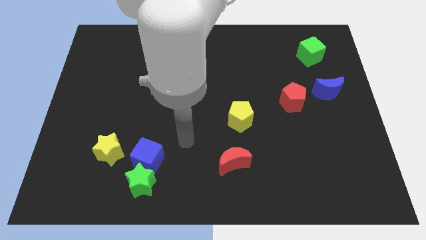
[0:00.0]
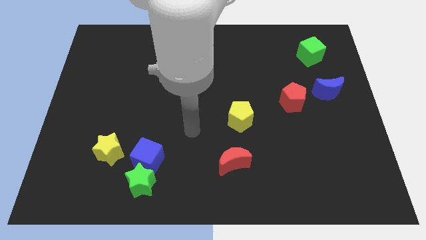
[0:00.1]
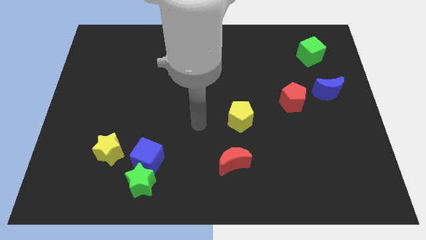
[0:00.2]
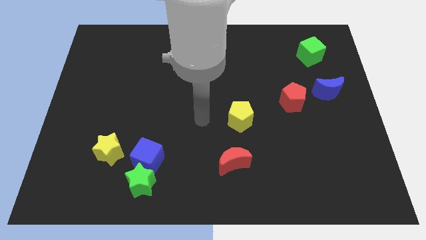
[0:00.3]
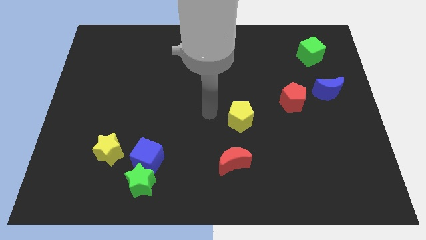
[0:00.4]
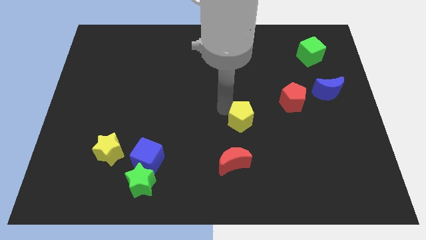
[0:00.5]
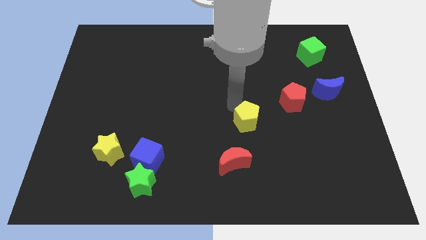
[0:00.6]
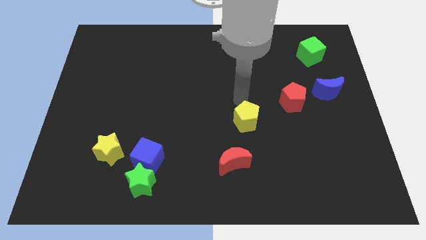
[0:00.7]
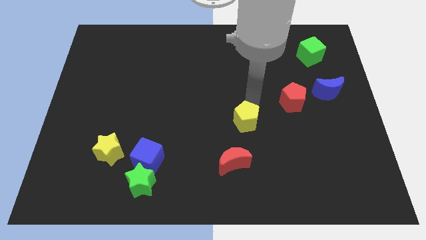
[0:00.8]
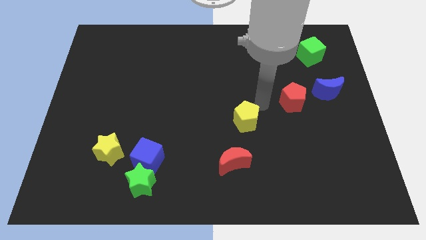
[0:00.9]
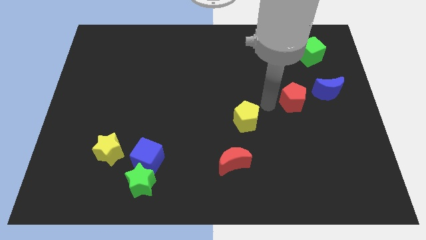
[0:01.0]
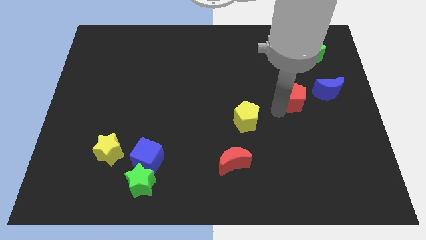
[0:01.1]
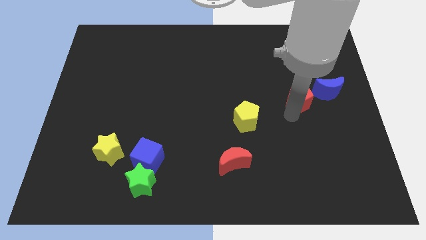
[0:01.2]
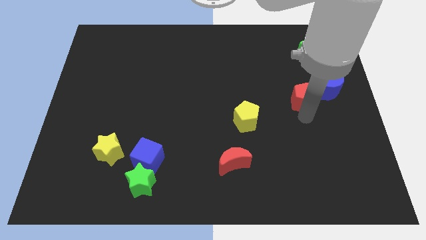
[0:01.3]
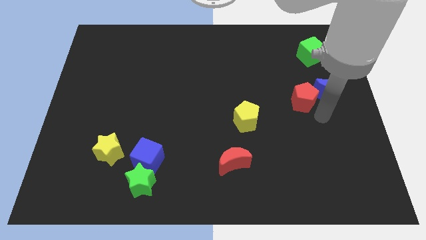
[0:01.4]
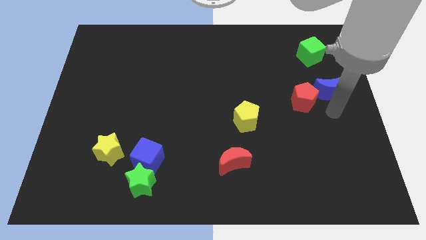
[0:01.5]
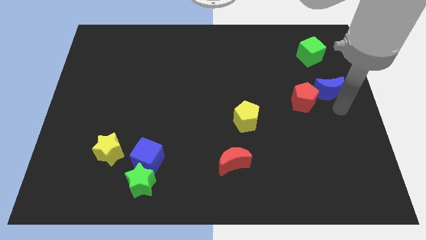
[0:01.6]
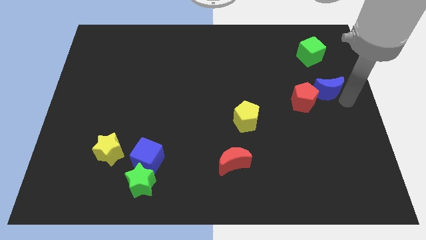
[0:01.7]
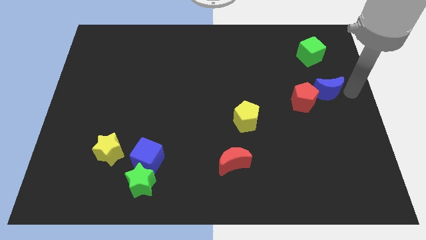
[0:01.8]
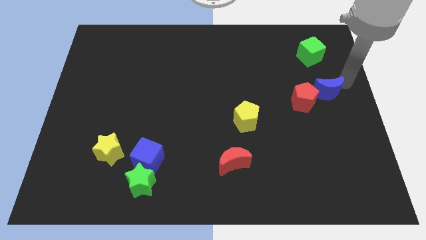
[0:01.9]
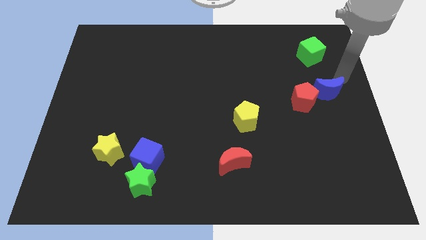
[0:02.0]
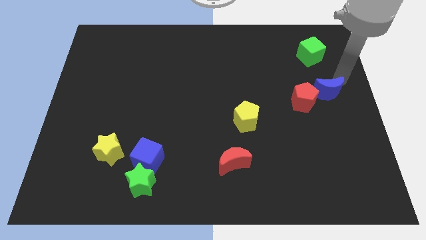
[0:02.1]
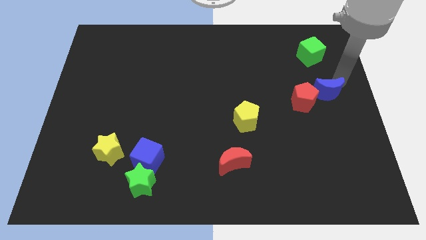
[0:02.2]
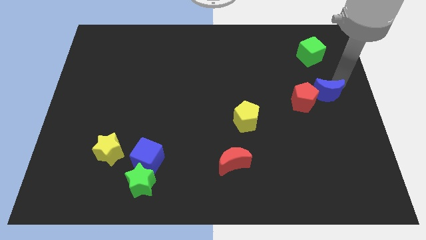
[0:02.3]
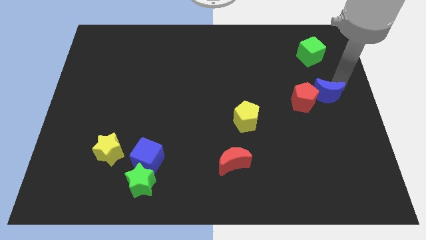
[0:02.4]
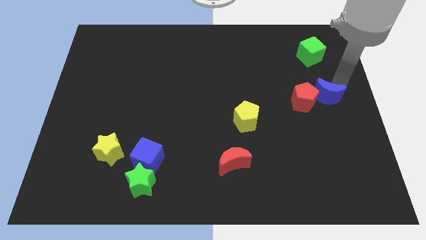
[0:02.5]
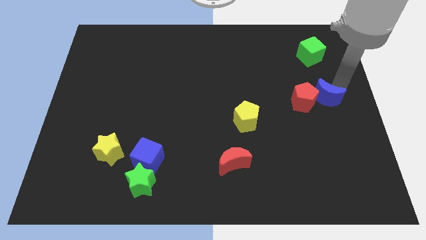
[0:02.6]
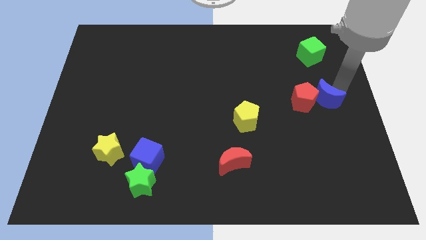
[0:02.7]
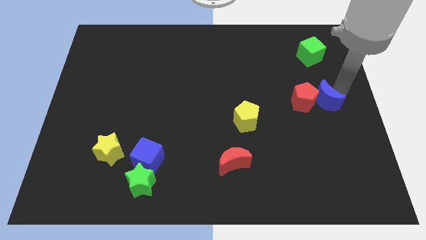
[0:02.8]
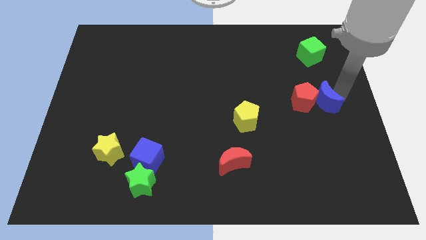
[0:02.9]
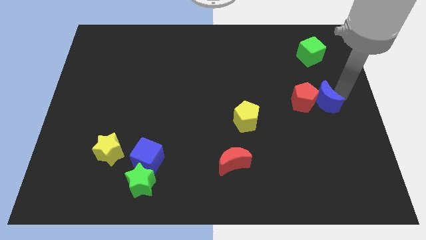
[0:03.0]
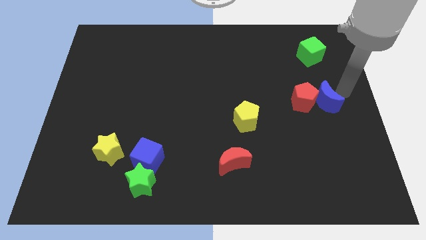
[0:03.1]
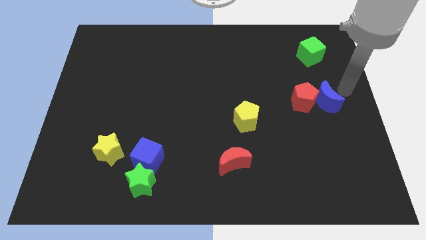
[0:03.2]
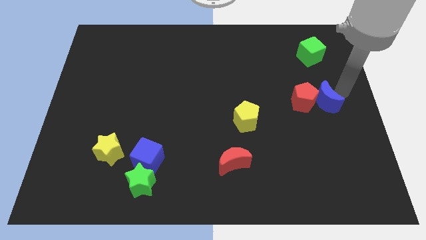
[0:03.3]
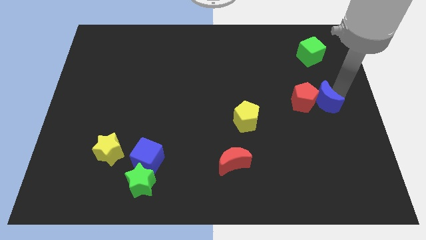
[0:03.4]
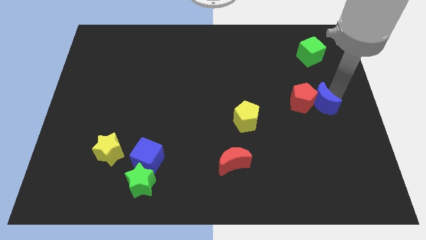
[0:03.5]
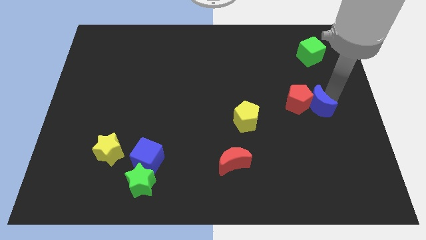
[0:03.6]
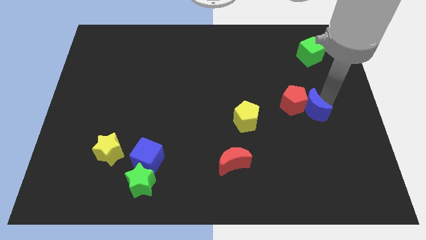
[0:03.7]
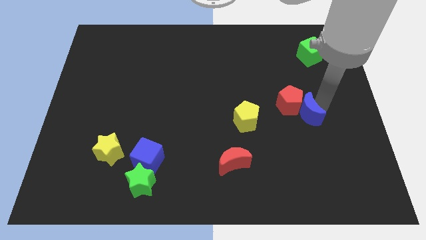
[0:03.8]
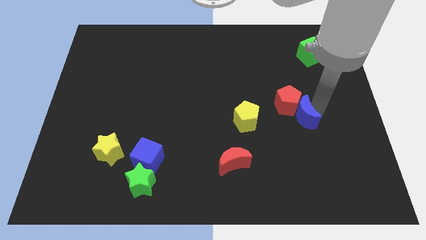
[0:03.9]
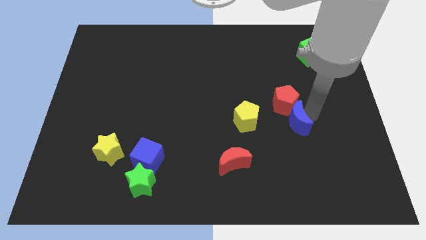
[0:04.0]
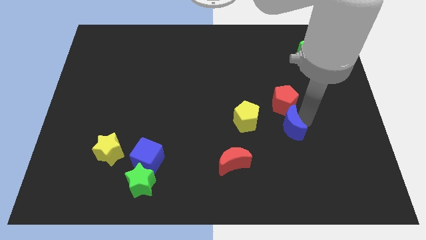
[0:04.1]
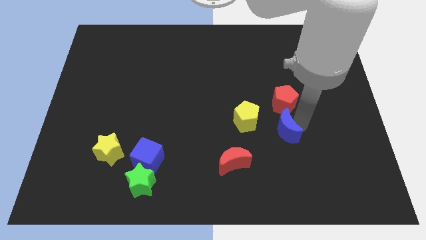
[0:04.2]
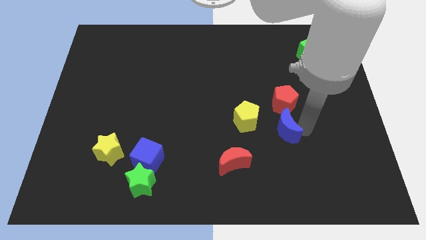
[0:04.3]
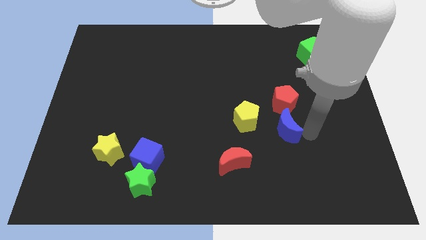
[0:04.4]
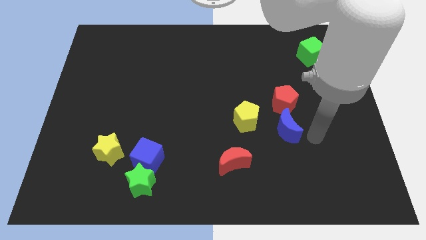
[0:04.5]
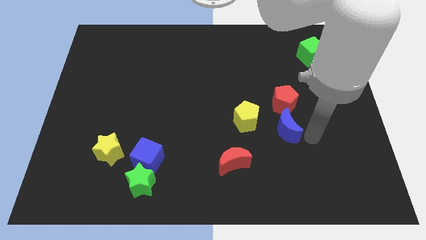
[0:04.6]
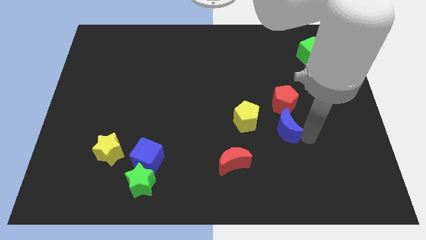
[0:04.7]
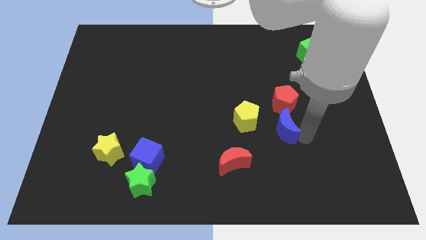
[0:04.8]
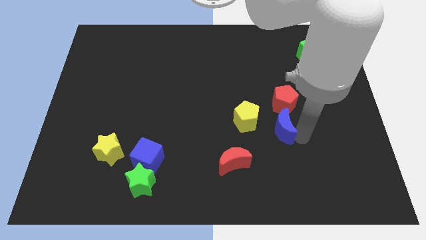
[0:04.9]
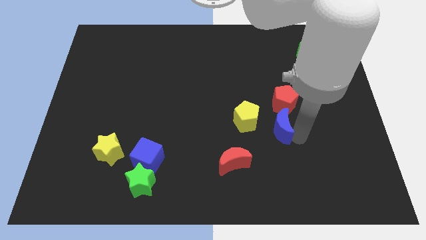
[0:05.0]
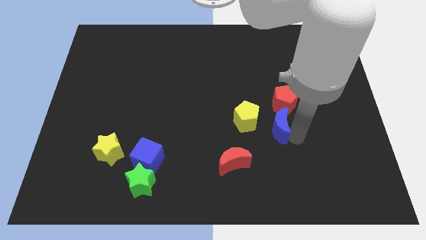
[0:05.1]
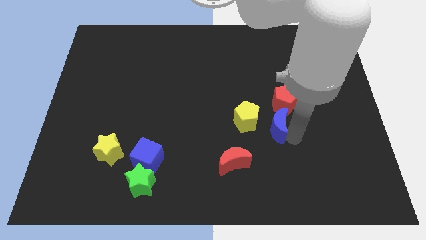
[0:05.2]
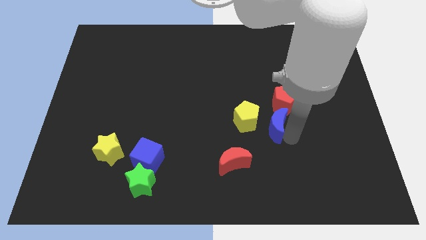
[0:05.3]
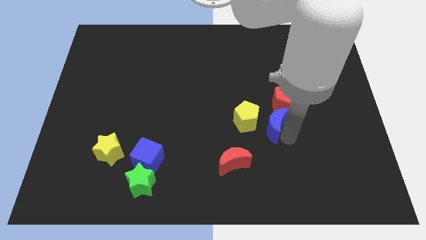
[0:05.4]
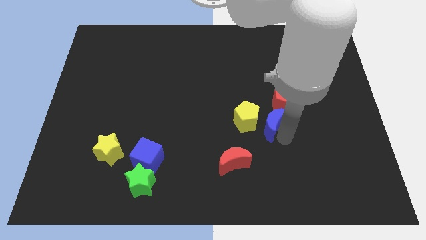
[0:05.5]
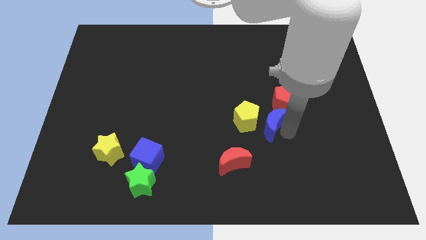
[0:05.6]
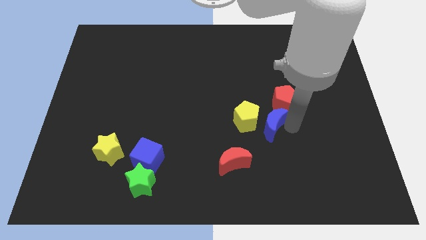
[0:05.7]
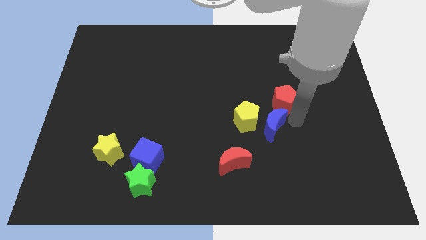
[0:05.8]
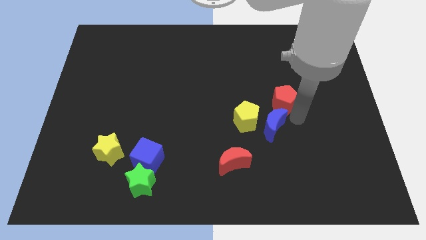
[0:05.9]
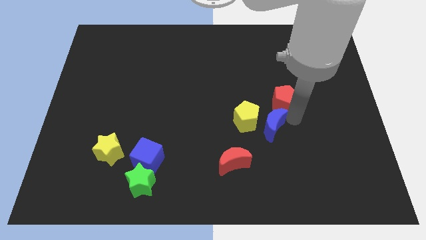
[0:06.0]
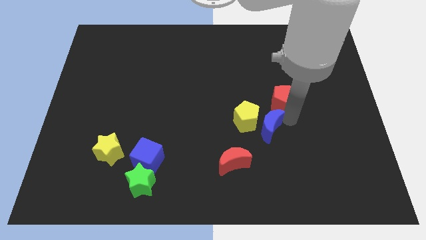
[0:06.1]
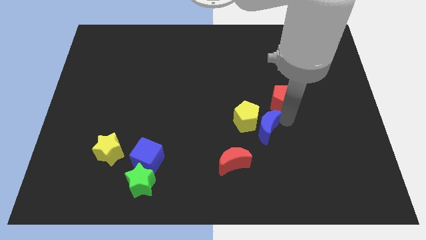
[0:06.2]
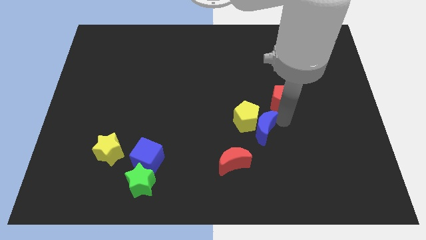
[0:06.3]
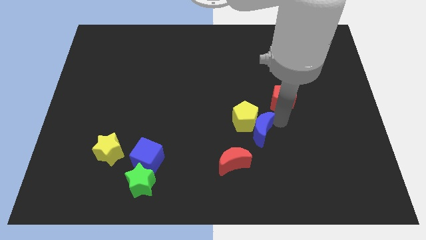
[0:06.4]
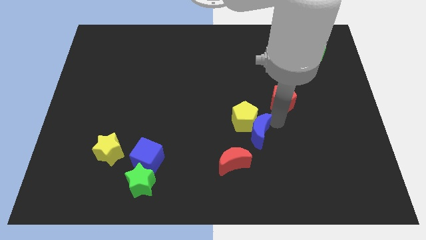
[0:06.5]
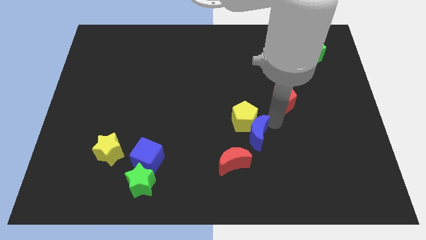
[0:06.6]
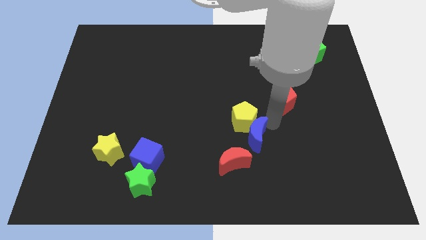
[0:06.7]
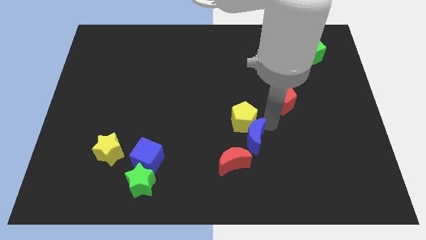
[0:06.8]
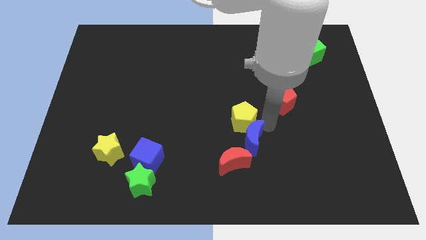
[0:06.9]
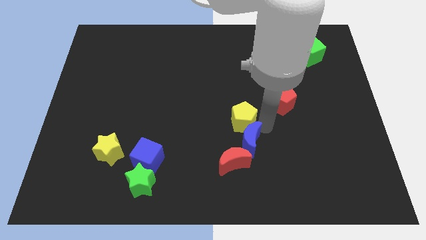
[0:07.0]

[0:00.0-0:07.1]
move the blue moon to the bottom left side of the yellow pentagon
